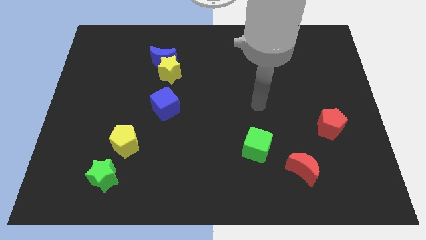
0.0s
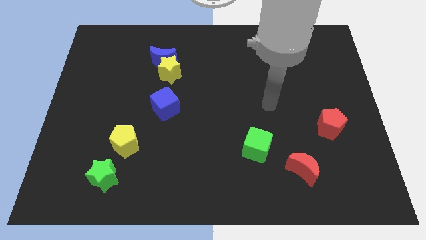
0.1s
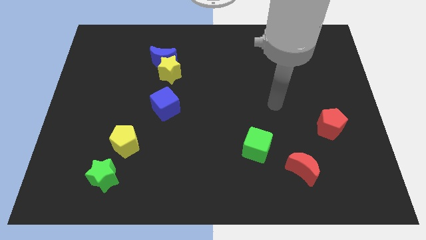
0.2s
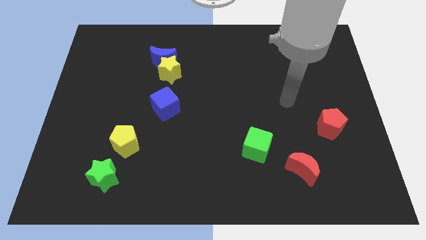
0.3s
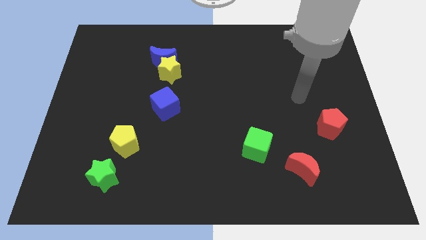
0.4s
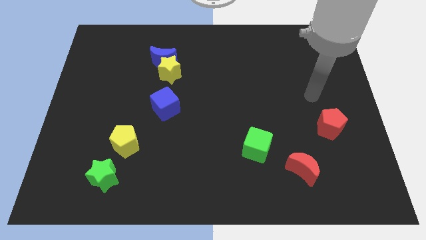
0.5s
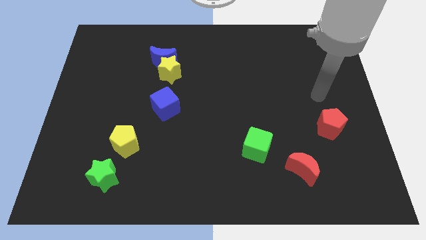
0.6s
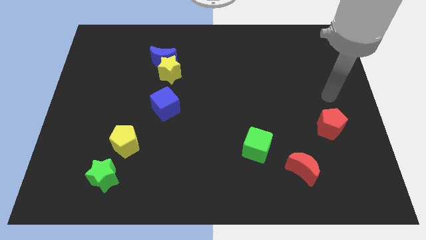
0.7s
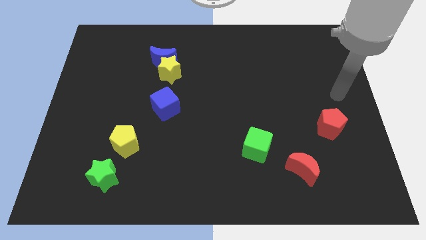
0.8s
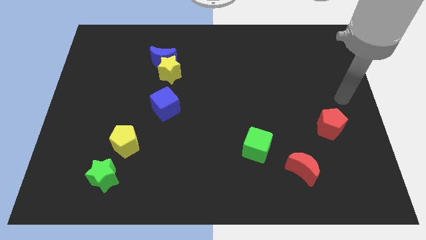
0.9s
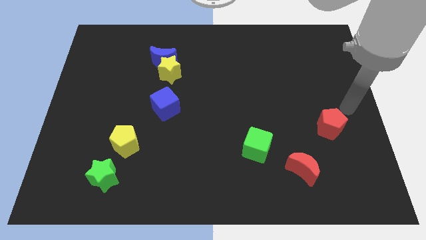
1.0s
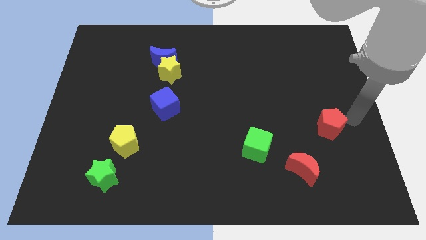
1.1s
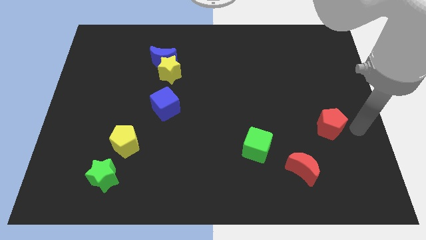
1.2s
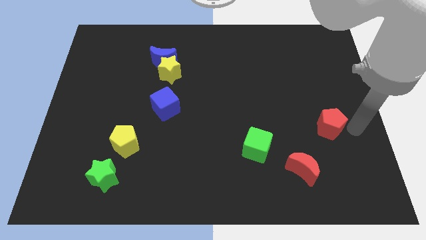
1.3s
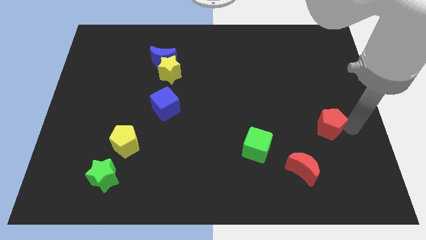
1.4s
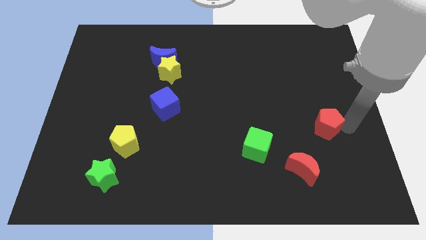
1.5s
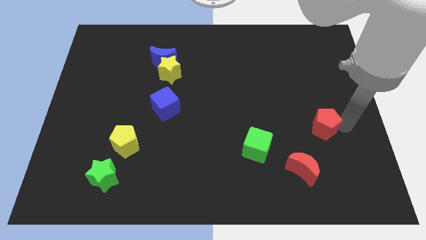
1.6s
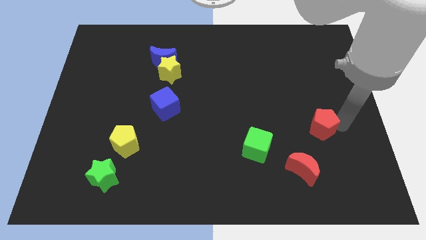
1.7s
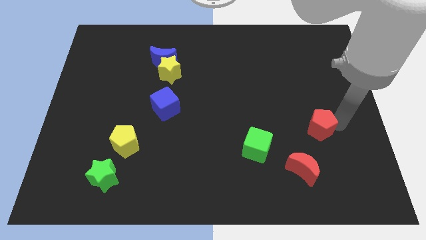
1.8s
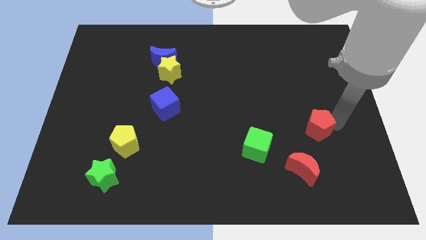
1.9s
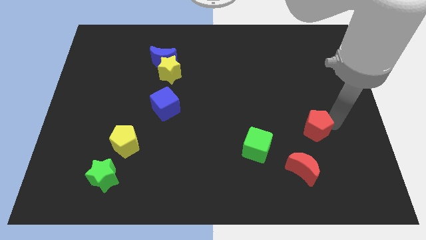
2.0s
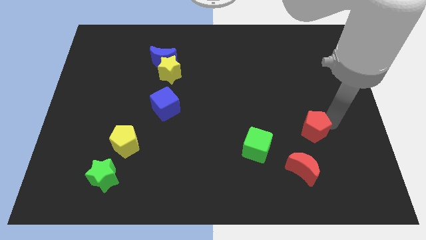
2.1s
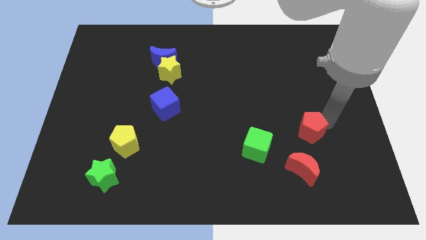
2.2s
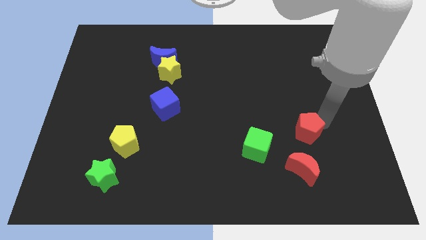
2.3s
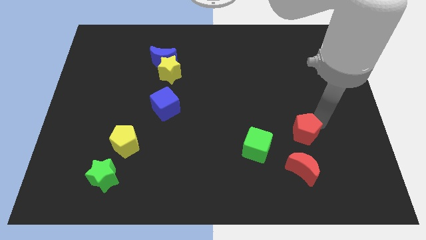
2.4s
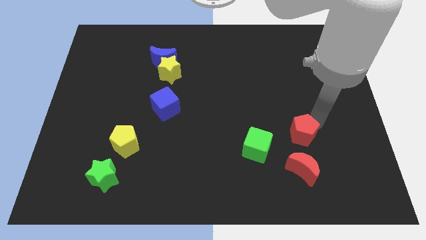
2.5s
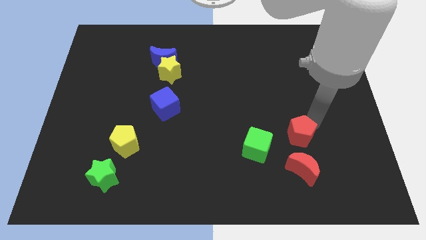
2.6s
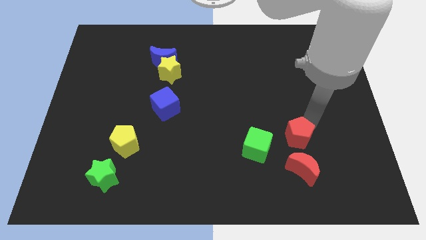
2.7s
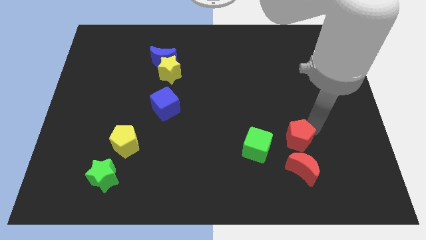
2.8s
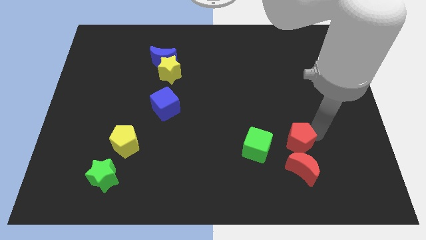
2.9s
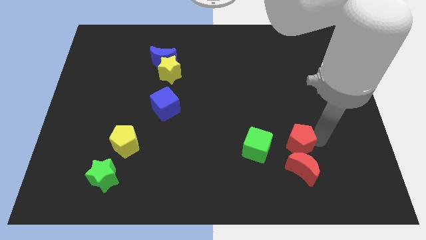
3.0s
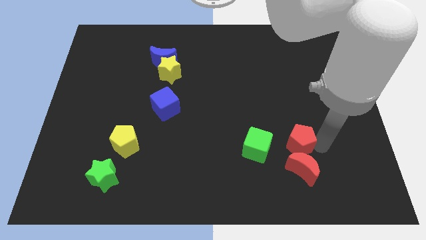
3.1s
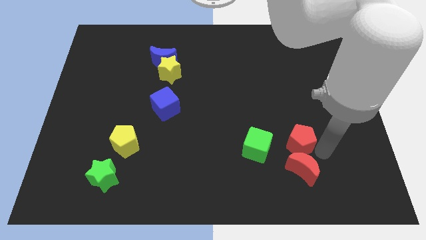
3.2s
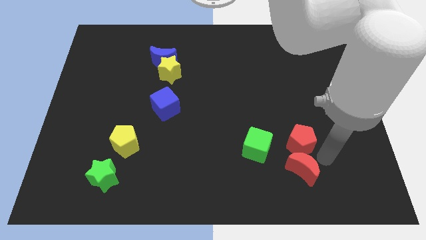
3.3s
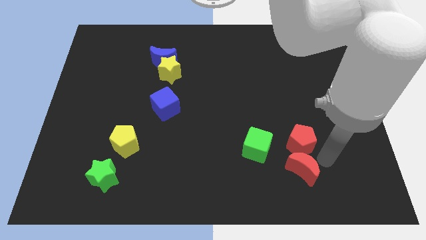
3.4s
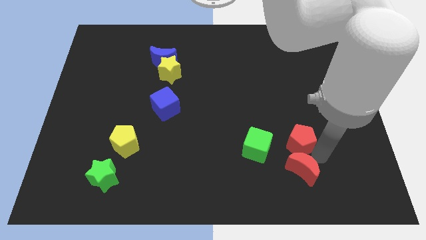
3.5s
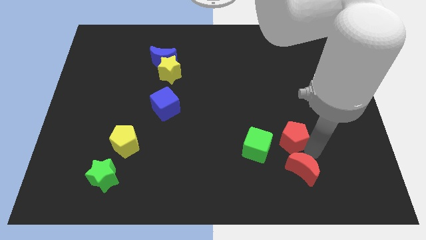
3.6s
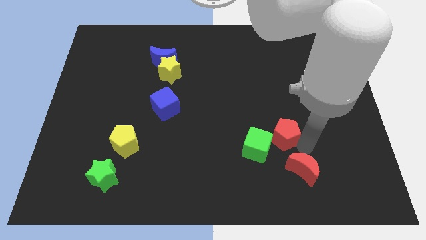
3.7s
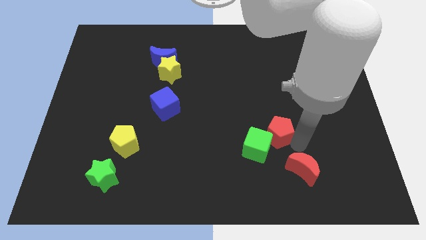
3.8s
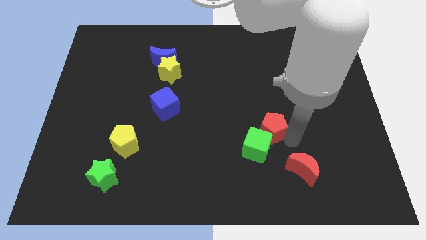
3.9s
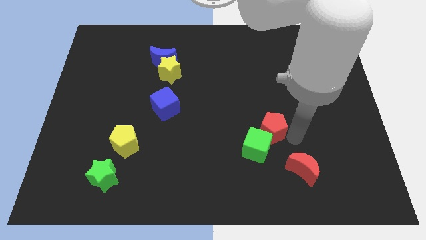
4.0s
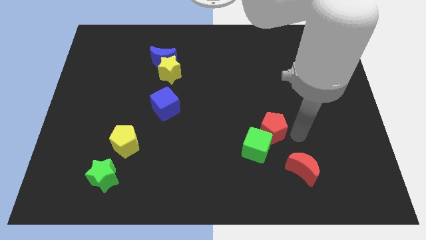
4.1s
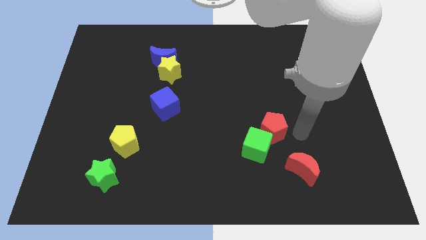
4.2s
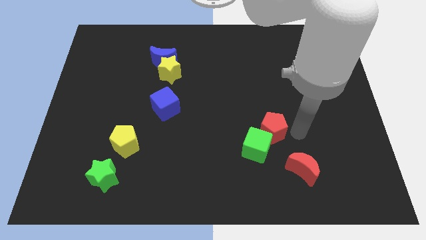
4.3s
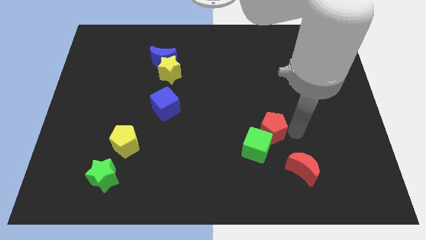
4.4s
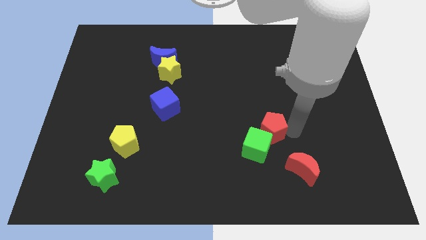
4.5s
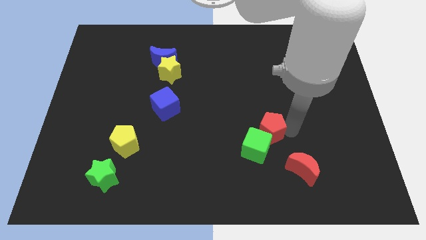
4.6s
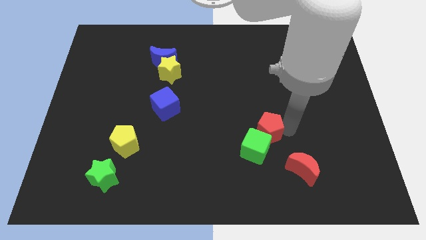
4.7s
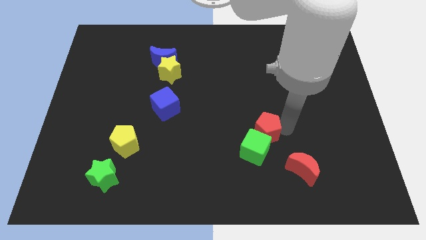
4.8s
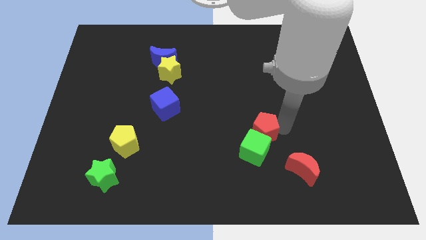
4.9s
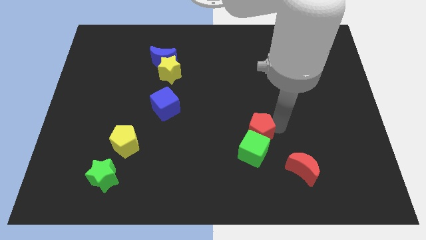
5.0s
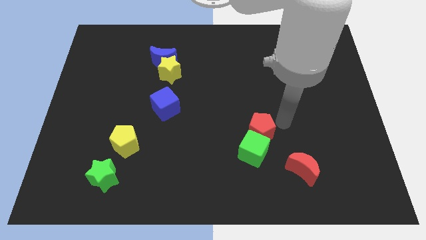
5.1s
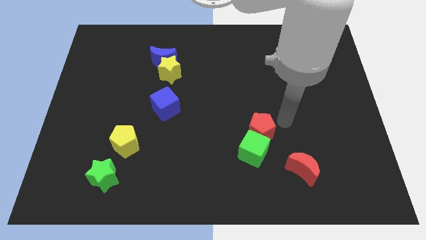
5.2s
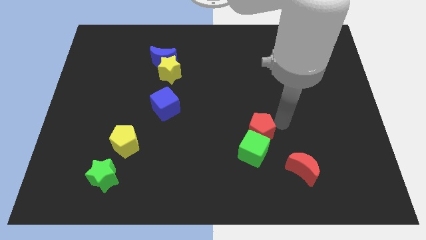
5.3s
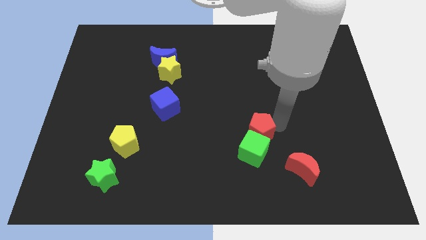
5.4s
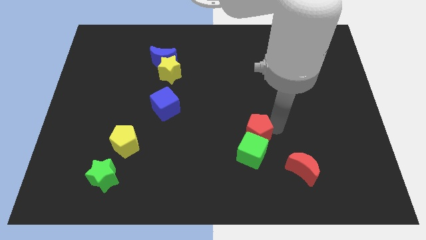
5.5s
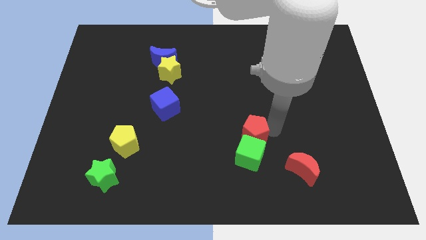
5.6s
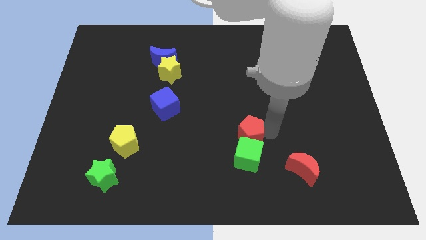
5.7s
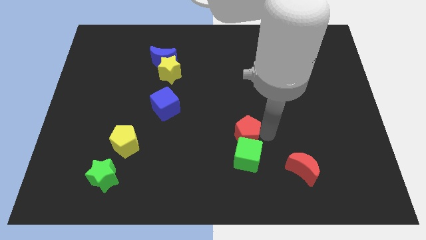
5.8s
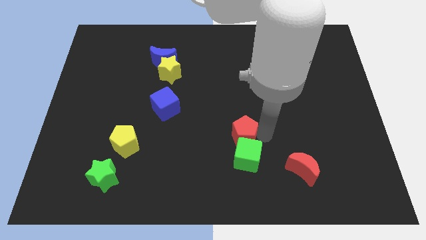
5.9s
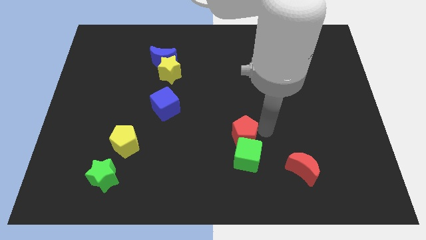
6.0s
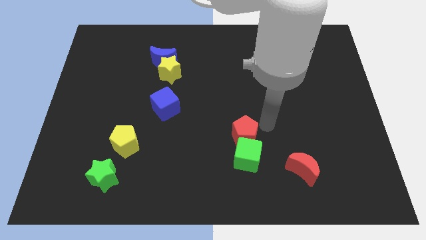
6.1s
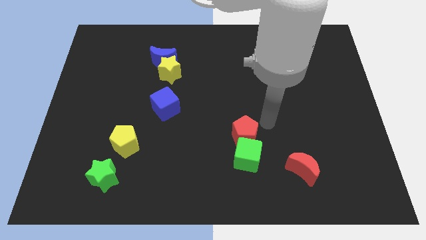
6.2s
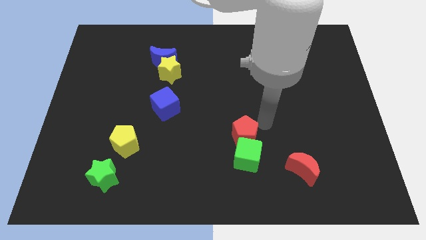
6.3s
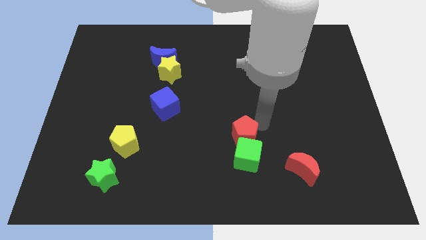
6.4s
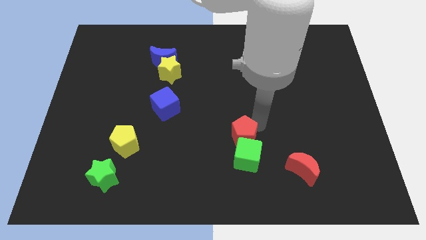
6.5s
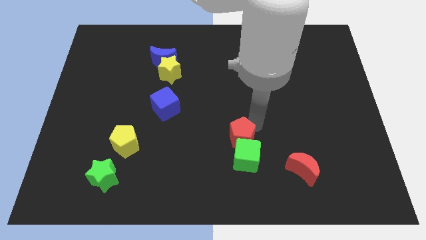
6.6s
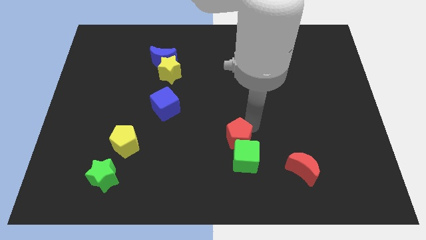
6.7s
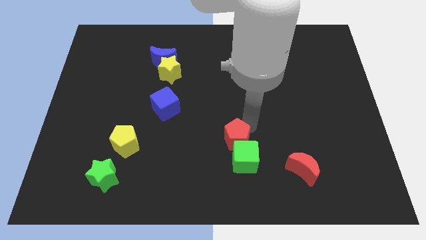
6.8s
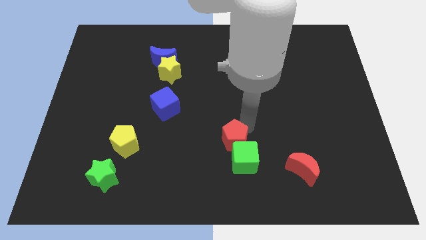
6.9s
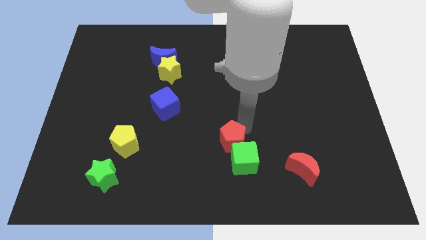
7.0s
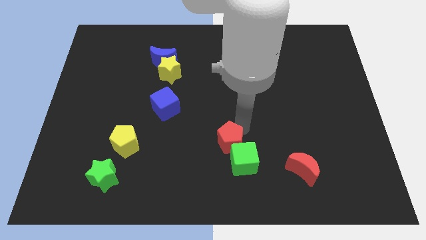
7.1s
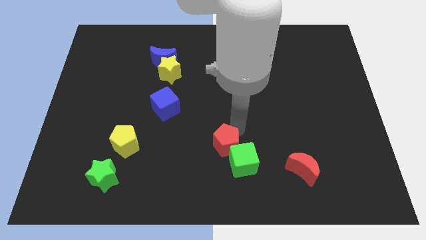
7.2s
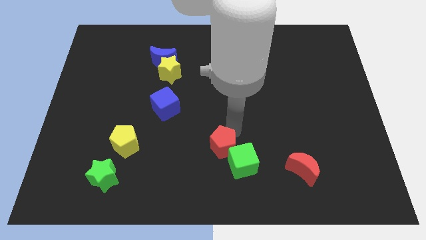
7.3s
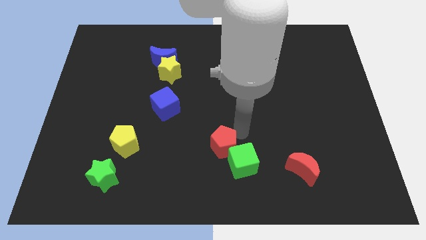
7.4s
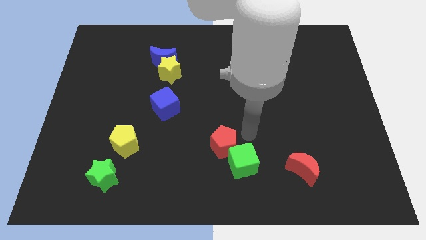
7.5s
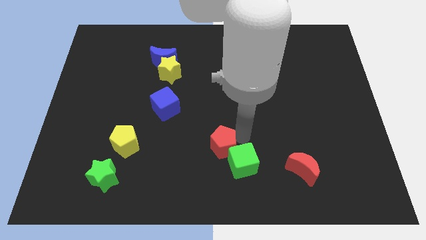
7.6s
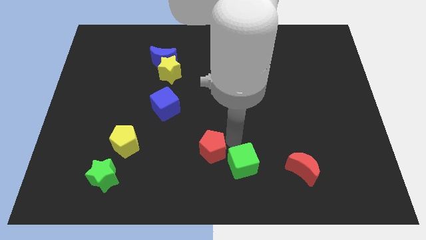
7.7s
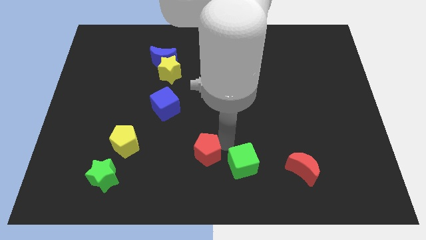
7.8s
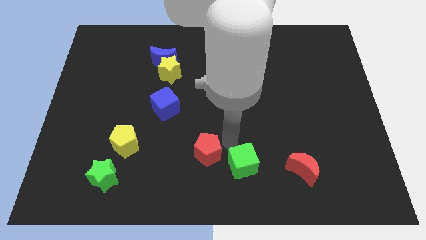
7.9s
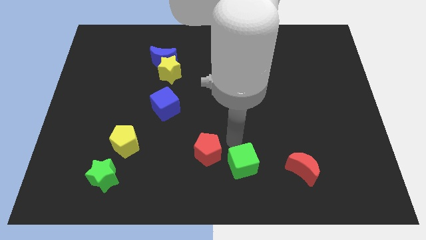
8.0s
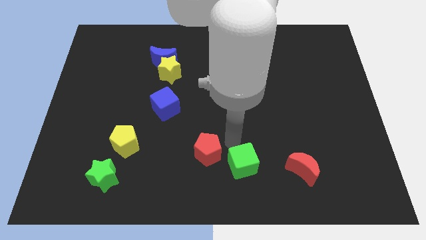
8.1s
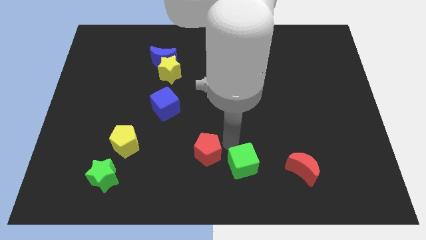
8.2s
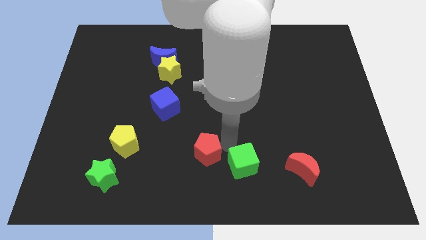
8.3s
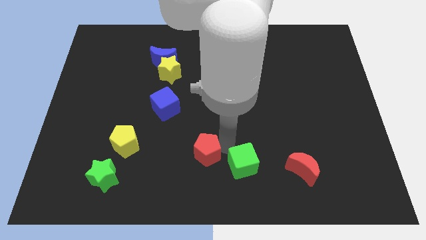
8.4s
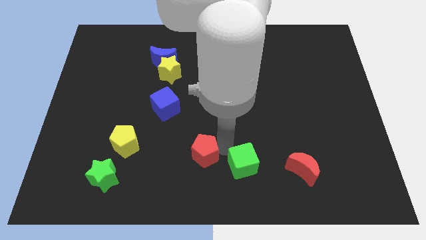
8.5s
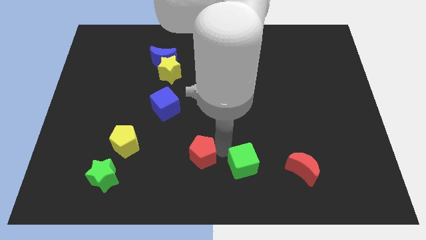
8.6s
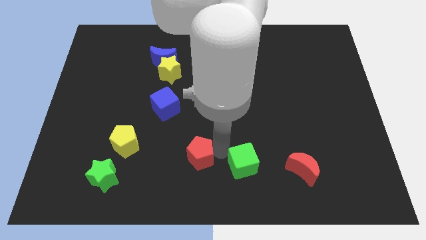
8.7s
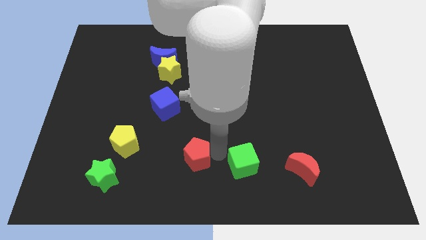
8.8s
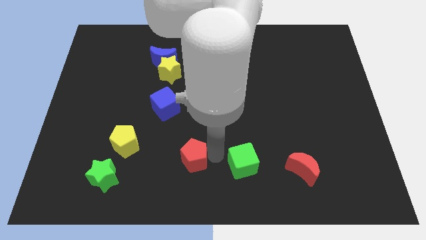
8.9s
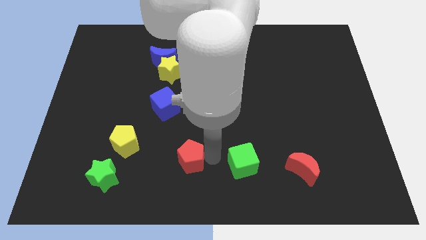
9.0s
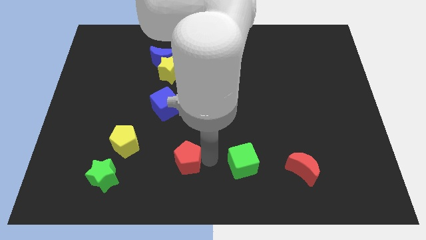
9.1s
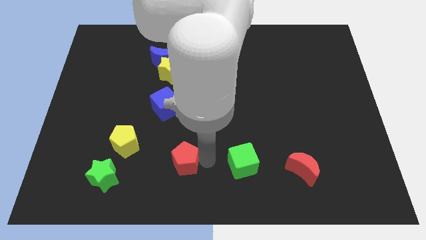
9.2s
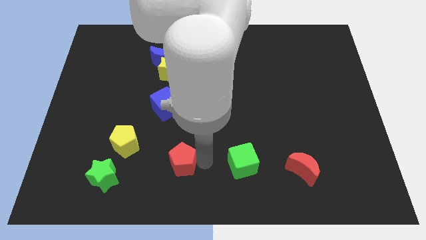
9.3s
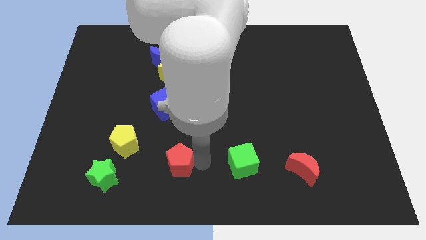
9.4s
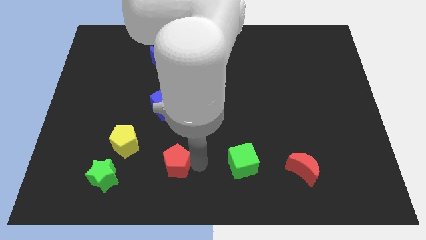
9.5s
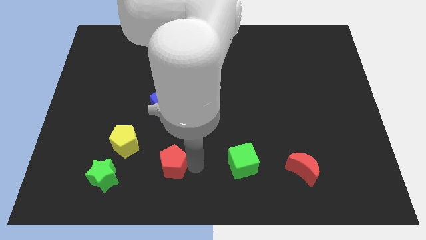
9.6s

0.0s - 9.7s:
push the red pentagon diagonally down and to the right of the yellow pentagon
